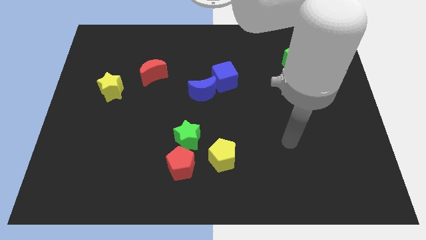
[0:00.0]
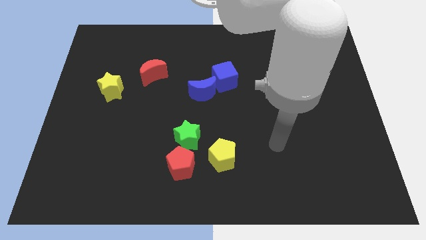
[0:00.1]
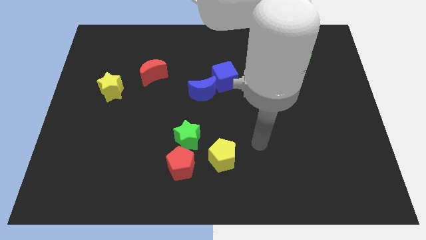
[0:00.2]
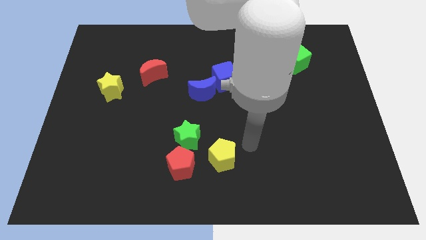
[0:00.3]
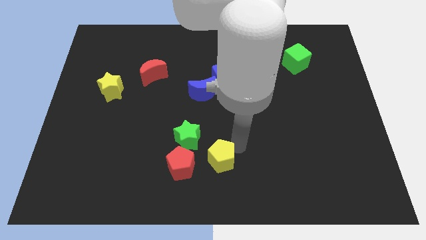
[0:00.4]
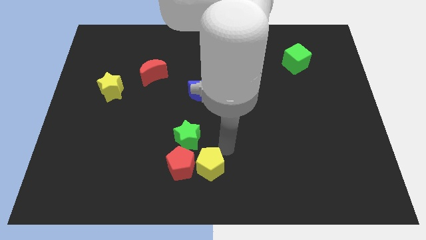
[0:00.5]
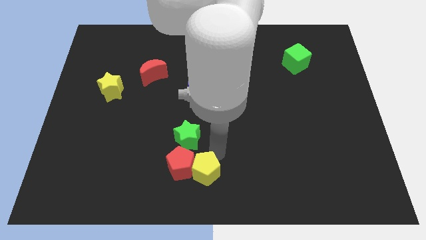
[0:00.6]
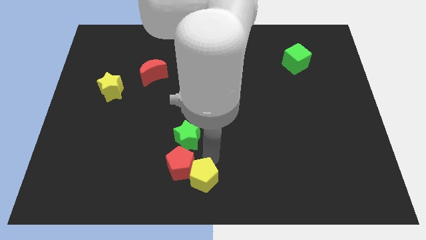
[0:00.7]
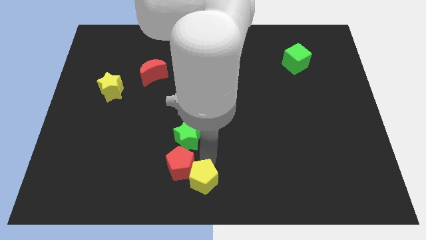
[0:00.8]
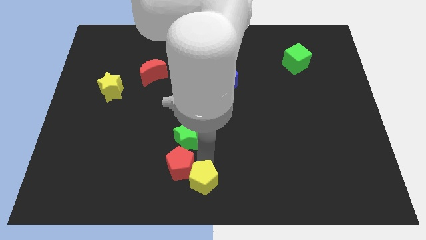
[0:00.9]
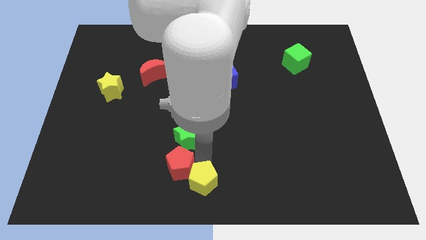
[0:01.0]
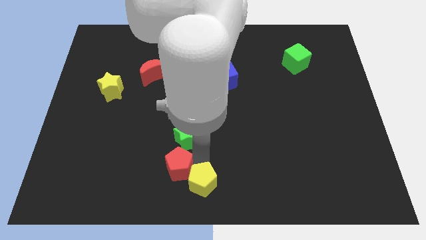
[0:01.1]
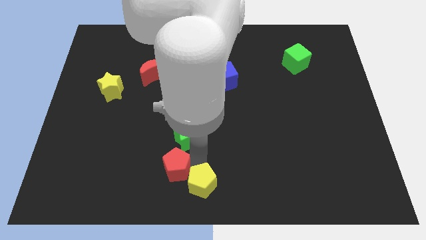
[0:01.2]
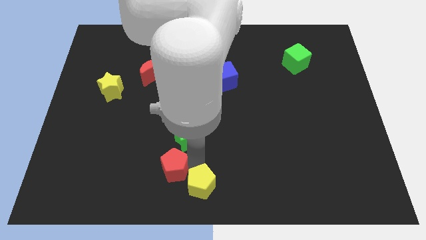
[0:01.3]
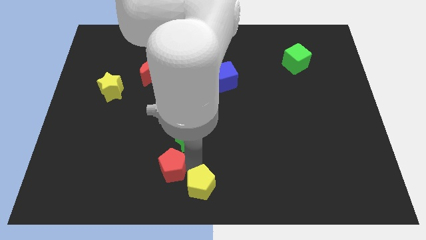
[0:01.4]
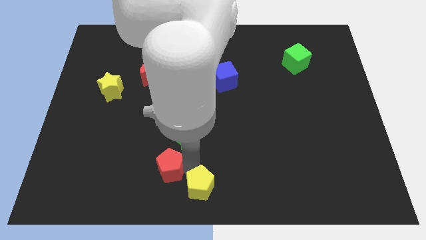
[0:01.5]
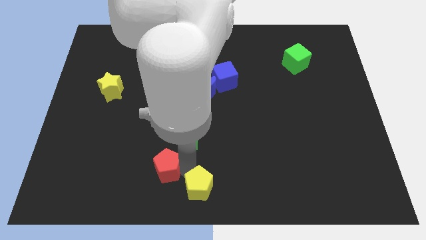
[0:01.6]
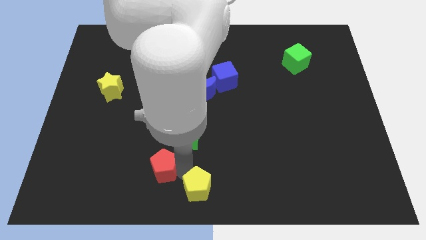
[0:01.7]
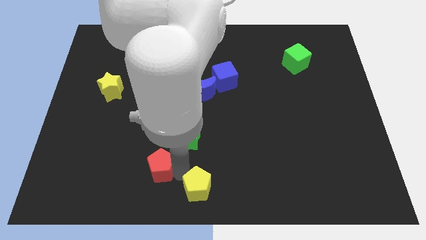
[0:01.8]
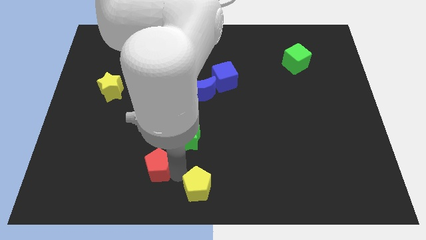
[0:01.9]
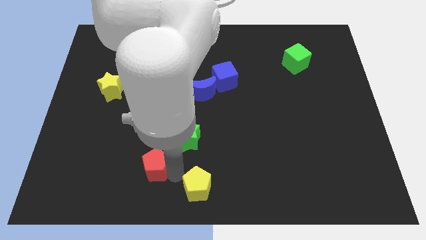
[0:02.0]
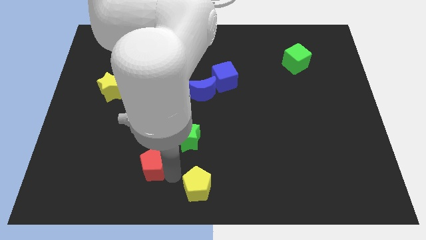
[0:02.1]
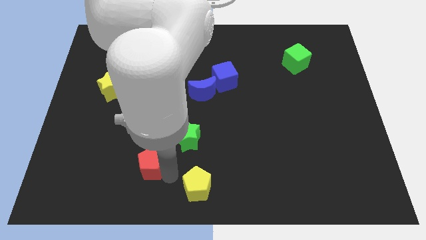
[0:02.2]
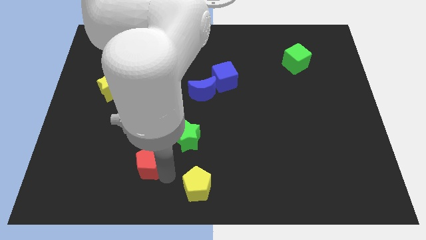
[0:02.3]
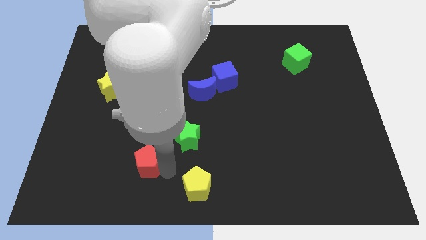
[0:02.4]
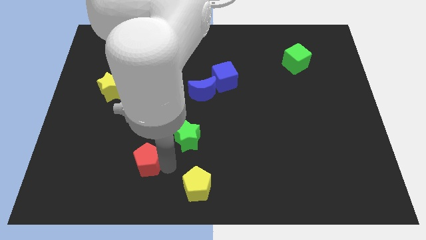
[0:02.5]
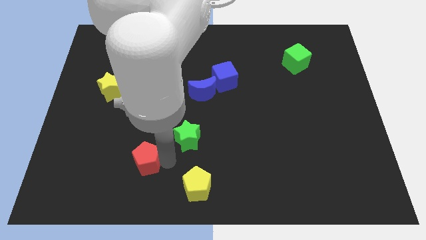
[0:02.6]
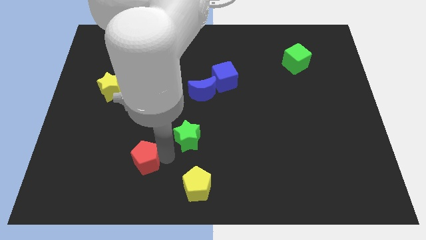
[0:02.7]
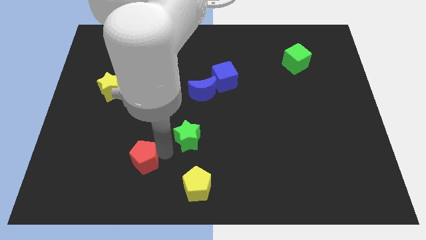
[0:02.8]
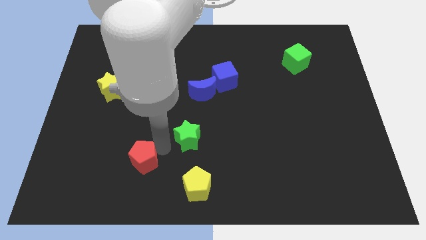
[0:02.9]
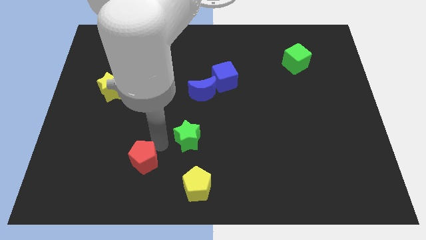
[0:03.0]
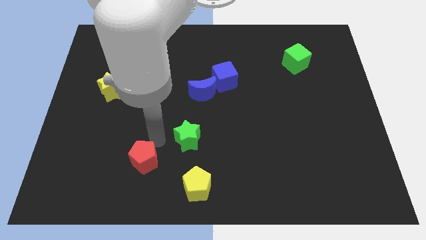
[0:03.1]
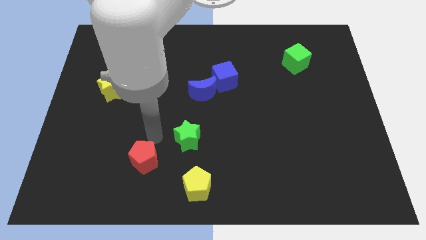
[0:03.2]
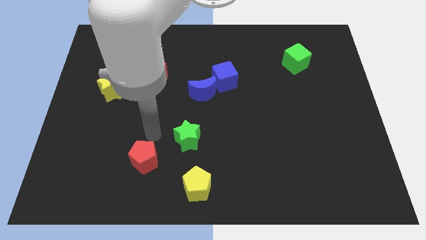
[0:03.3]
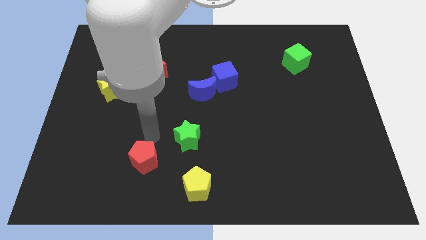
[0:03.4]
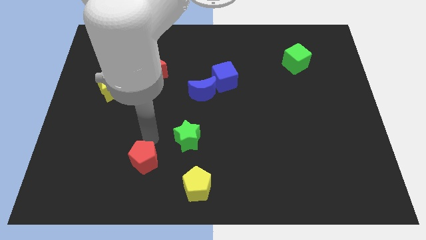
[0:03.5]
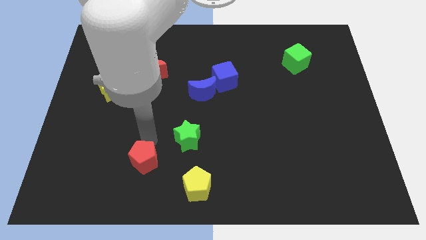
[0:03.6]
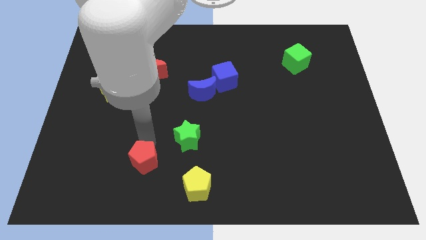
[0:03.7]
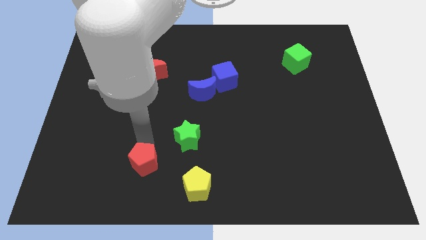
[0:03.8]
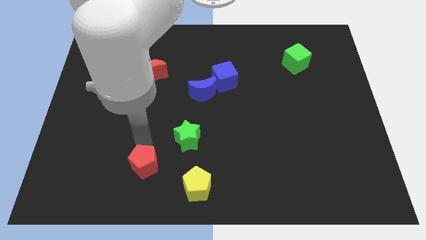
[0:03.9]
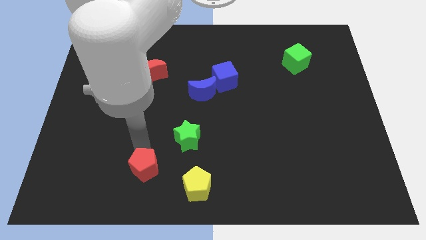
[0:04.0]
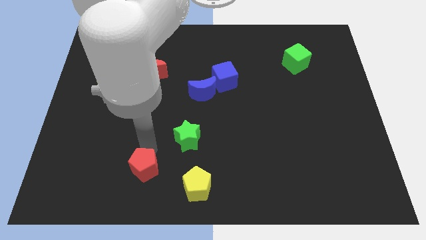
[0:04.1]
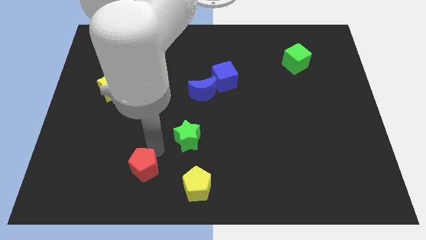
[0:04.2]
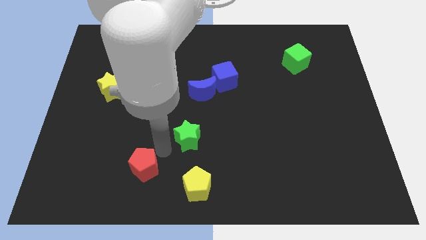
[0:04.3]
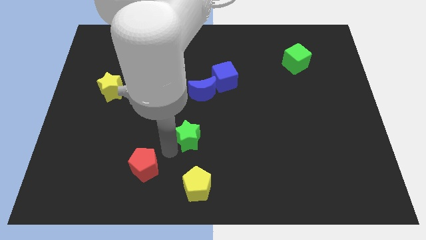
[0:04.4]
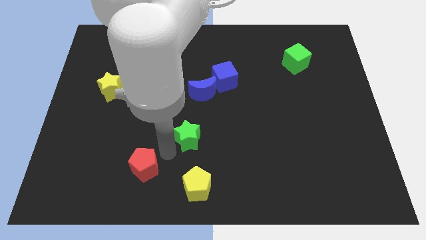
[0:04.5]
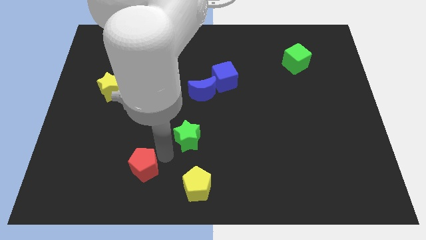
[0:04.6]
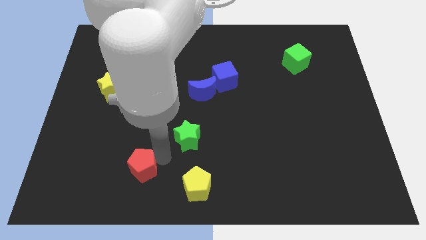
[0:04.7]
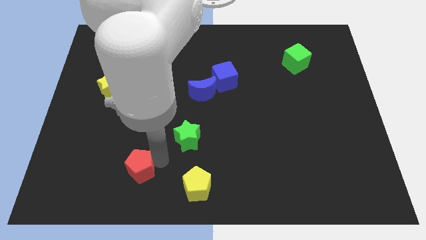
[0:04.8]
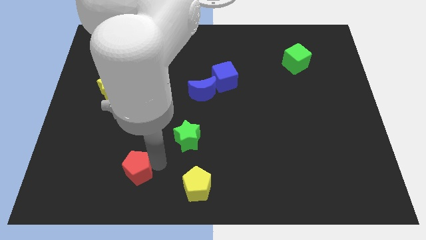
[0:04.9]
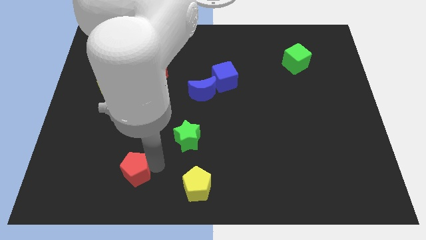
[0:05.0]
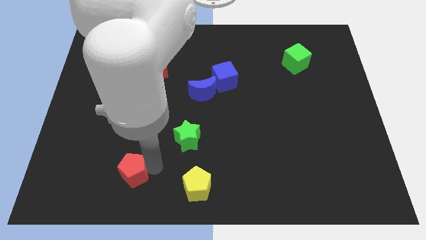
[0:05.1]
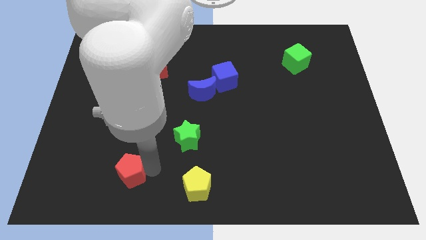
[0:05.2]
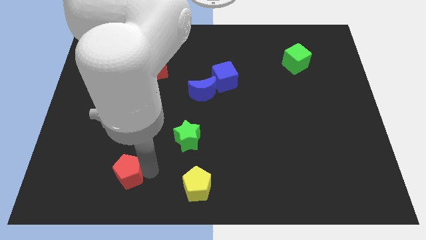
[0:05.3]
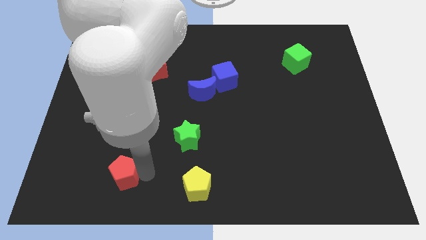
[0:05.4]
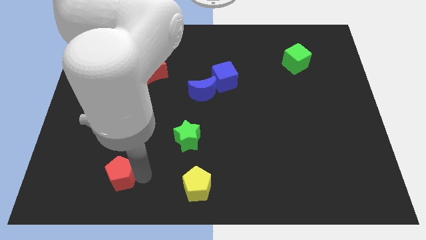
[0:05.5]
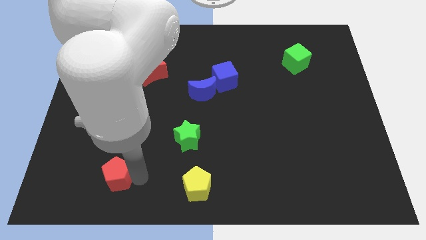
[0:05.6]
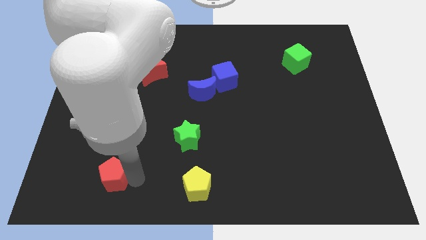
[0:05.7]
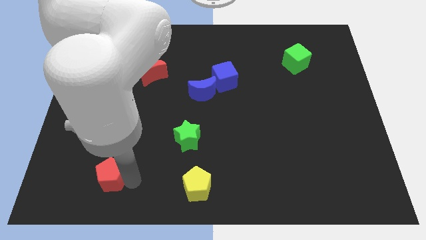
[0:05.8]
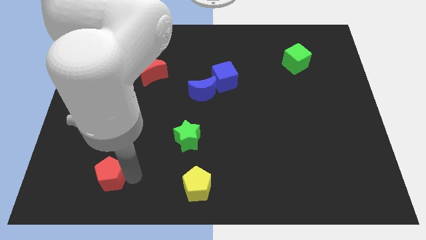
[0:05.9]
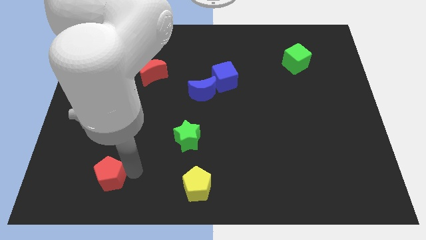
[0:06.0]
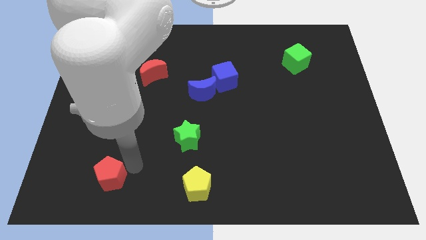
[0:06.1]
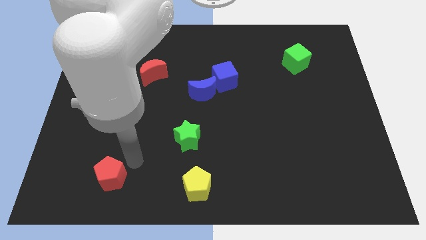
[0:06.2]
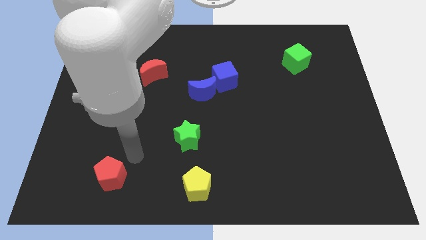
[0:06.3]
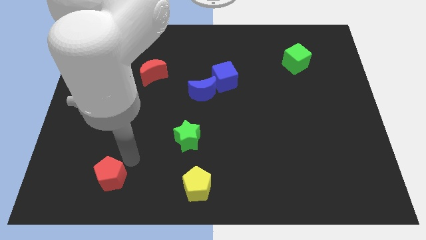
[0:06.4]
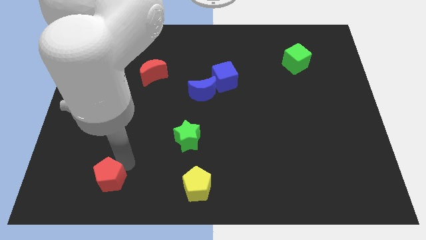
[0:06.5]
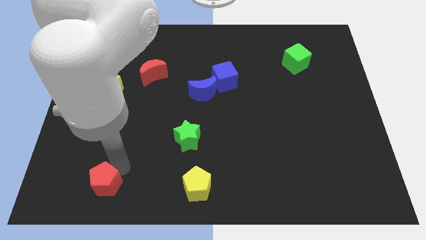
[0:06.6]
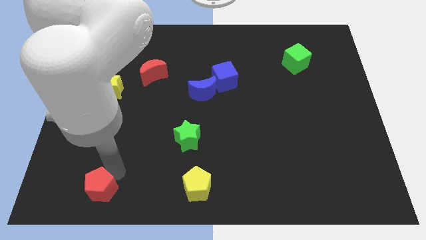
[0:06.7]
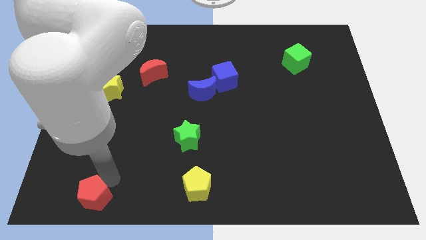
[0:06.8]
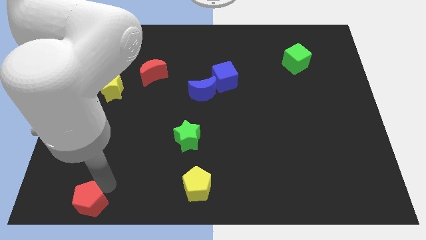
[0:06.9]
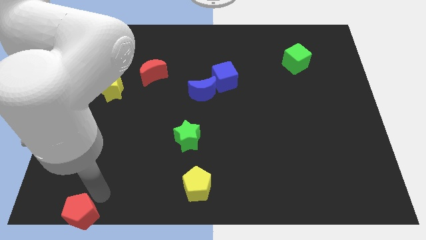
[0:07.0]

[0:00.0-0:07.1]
push the red pentagon to the lower left corner
